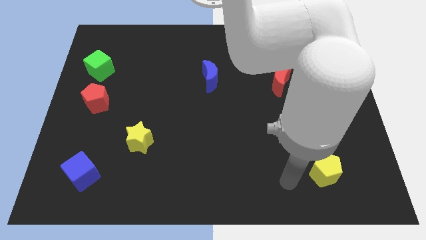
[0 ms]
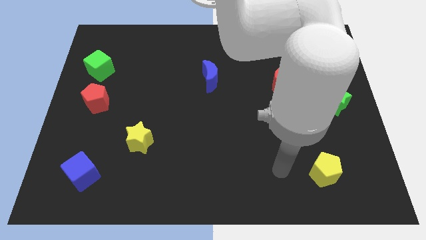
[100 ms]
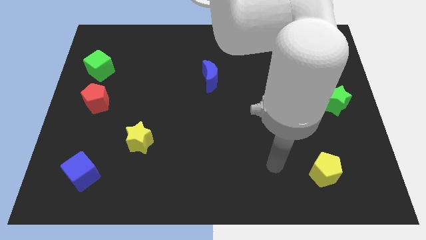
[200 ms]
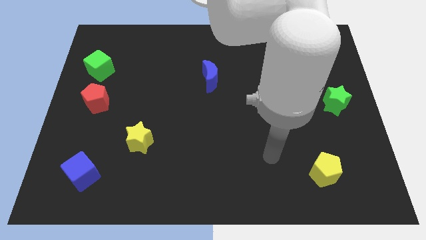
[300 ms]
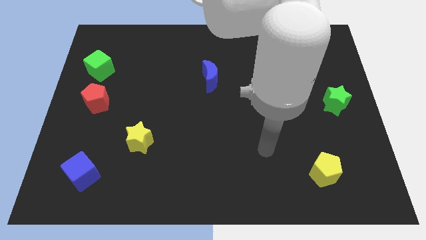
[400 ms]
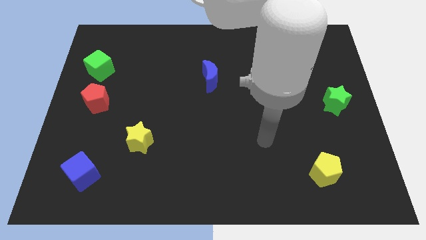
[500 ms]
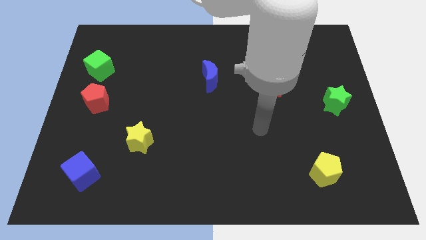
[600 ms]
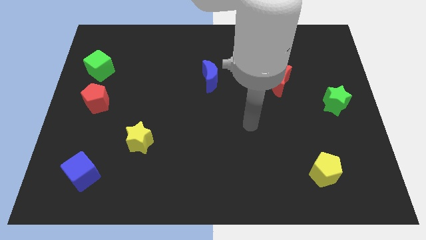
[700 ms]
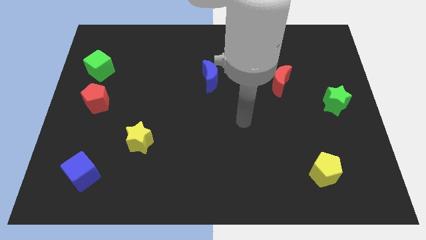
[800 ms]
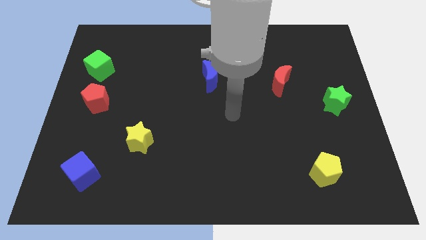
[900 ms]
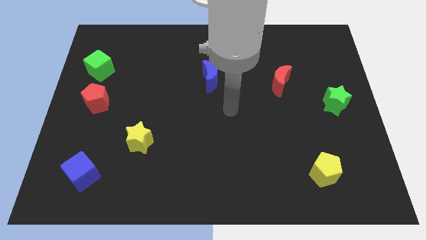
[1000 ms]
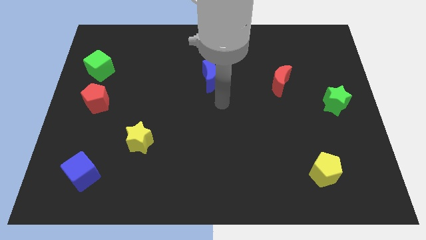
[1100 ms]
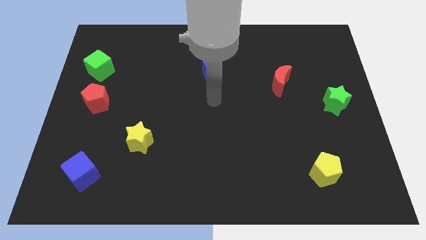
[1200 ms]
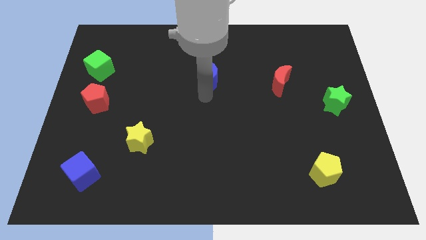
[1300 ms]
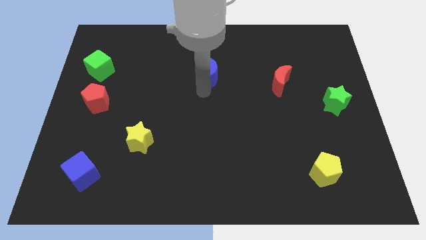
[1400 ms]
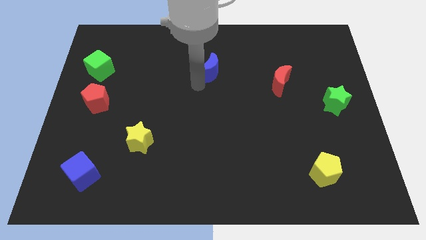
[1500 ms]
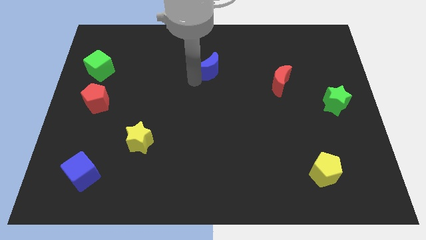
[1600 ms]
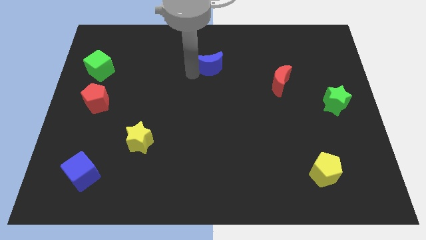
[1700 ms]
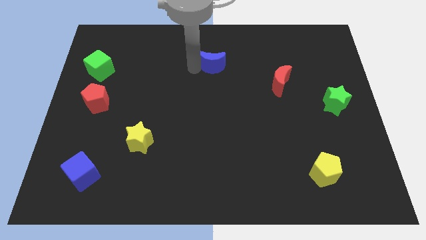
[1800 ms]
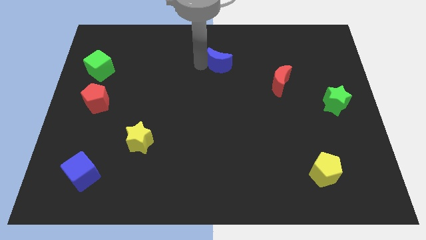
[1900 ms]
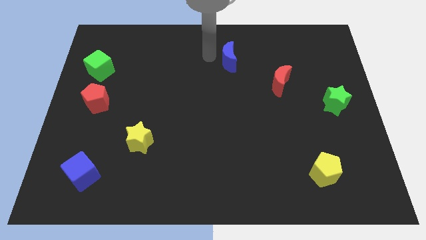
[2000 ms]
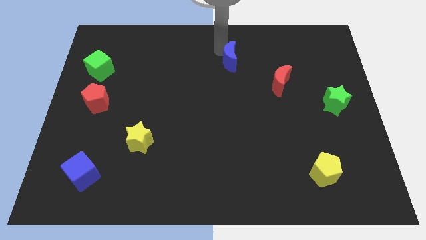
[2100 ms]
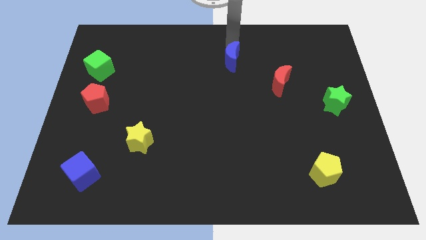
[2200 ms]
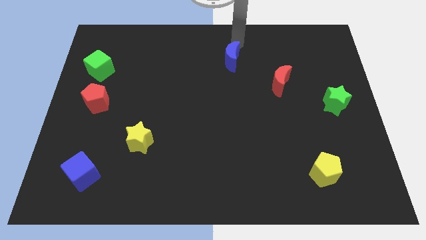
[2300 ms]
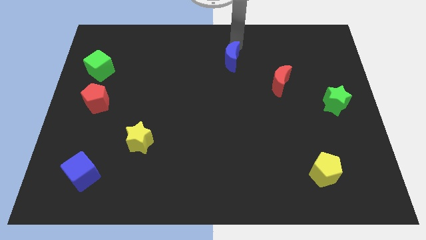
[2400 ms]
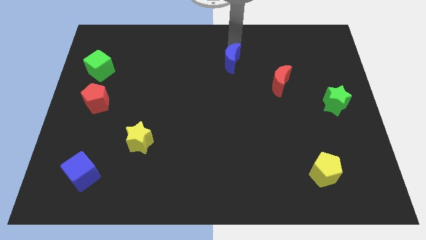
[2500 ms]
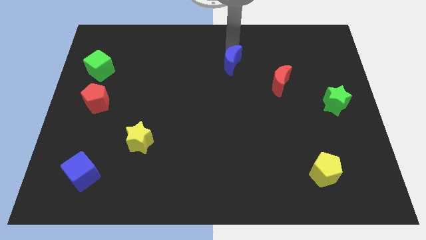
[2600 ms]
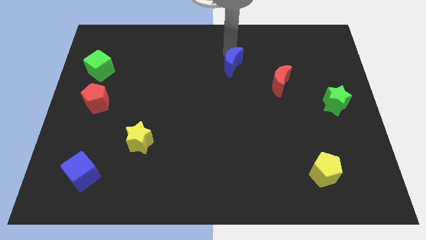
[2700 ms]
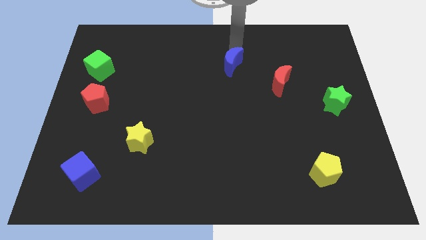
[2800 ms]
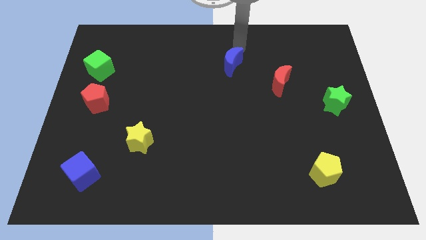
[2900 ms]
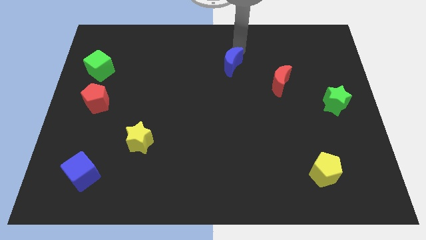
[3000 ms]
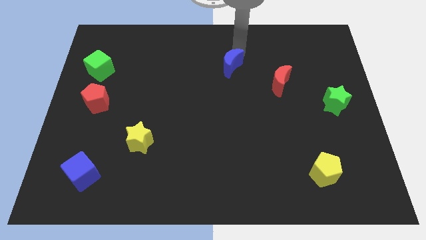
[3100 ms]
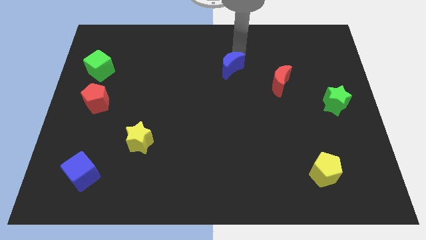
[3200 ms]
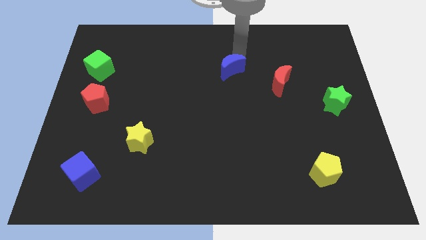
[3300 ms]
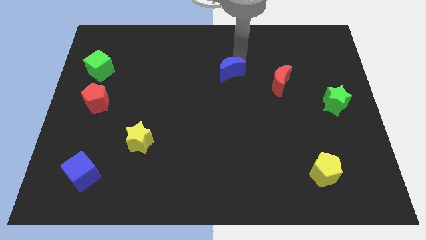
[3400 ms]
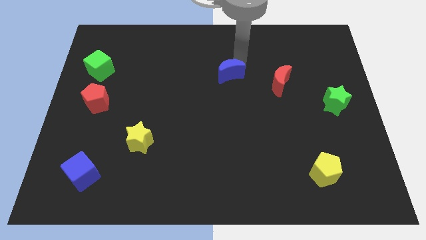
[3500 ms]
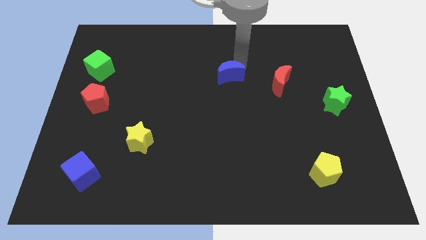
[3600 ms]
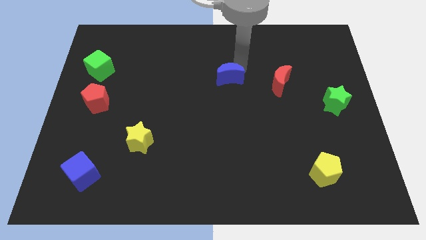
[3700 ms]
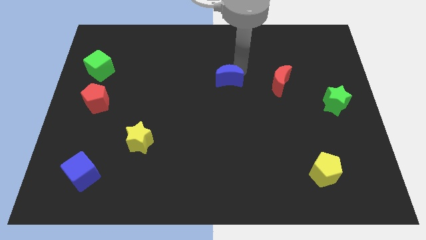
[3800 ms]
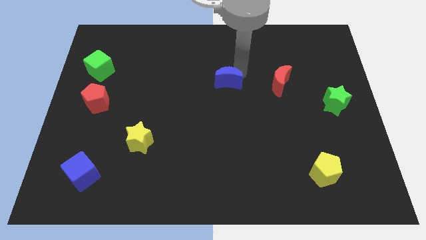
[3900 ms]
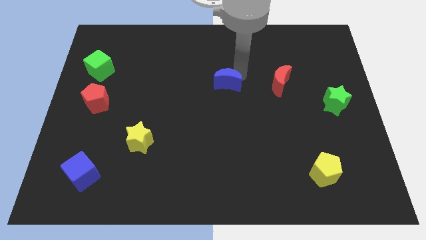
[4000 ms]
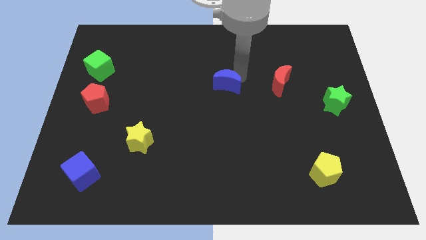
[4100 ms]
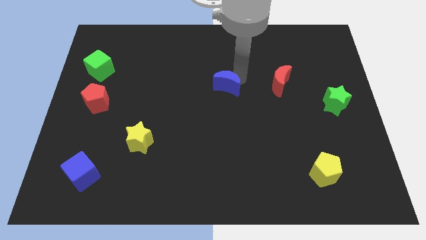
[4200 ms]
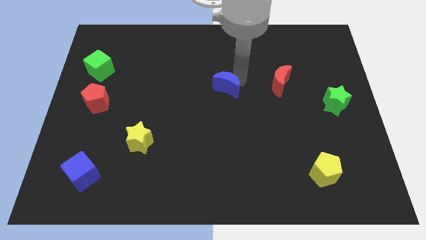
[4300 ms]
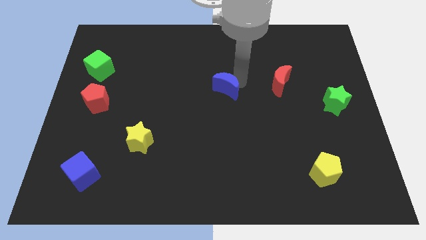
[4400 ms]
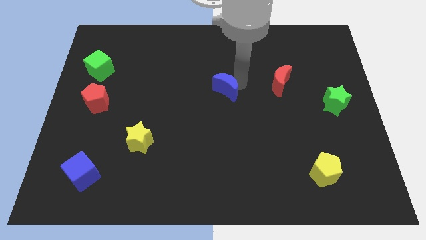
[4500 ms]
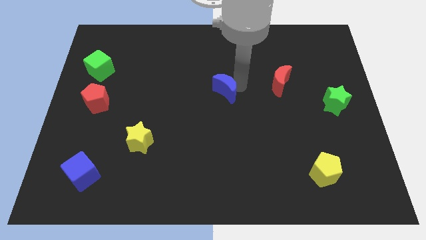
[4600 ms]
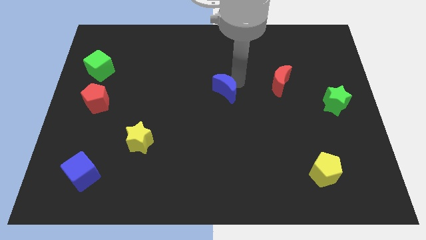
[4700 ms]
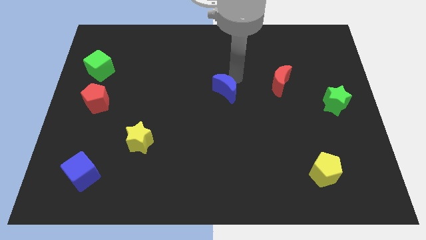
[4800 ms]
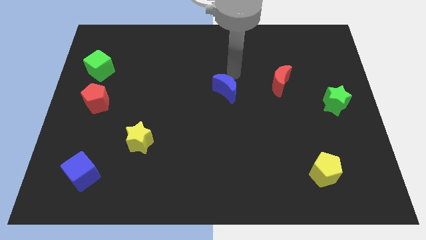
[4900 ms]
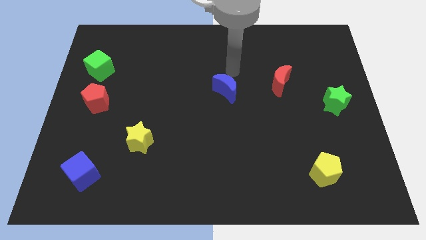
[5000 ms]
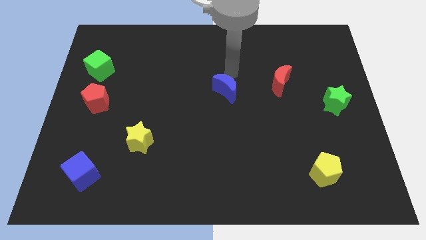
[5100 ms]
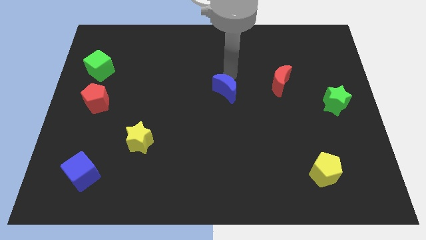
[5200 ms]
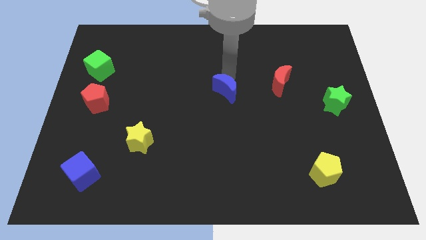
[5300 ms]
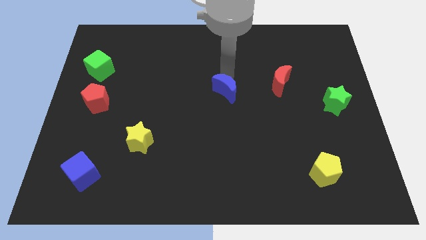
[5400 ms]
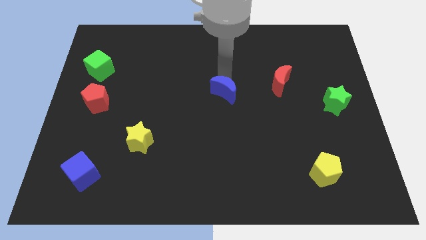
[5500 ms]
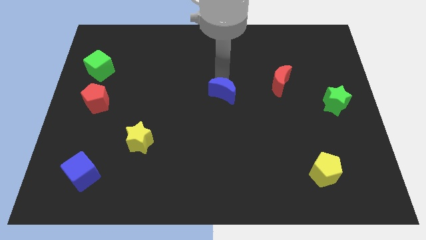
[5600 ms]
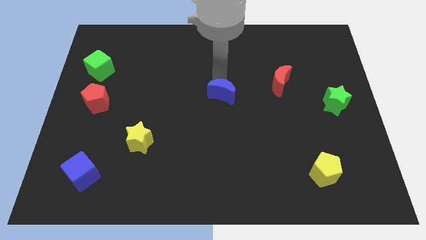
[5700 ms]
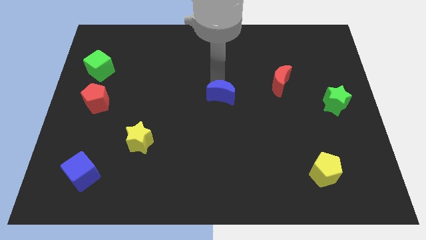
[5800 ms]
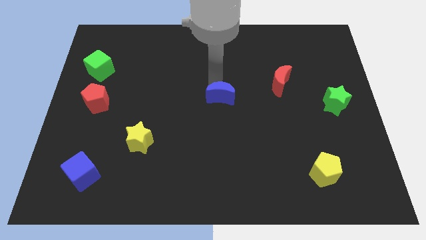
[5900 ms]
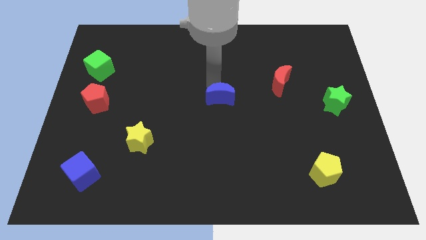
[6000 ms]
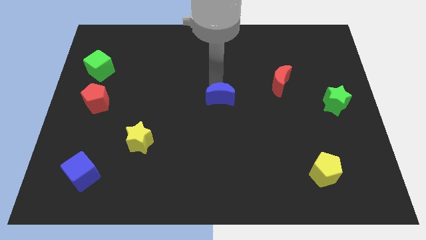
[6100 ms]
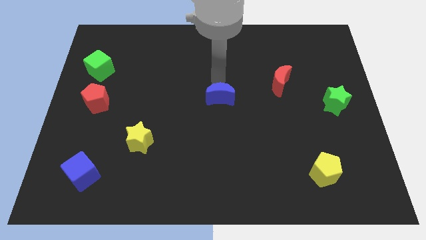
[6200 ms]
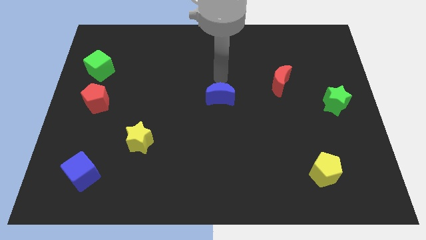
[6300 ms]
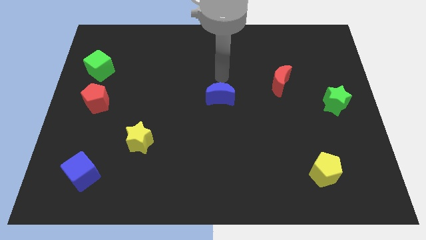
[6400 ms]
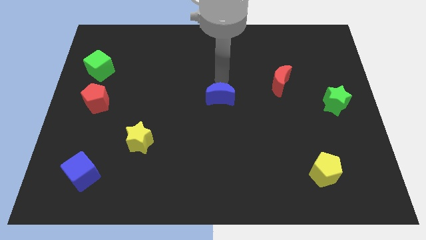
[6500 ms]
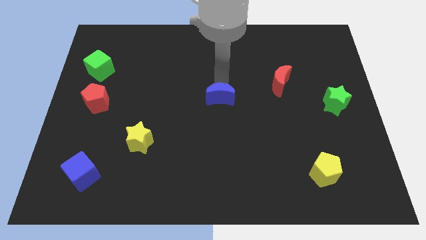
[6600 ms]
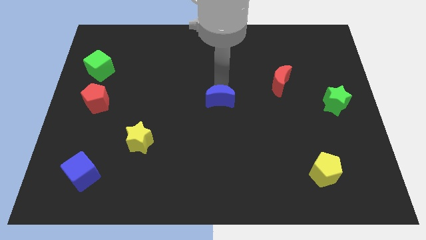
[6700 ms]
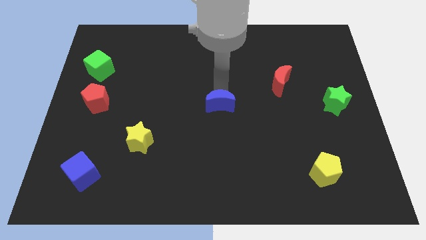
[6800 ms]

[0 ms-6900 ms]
move the blue moon down slightly

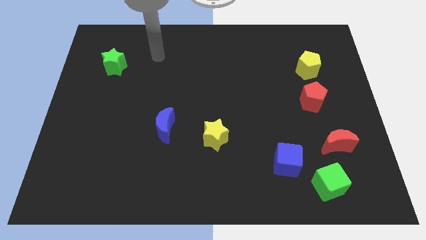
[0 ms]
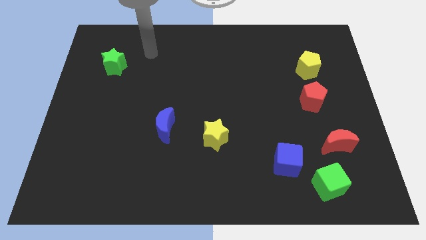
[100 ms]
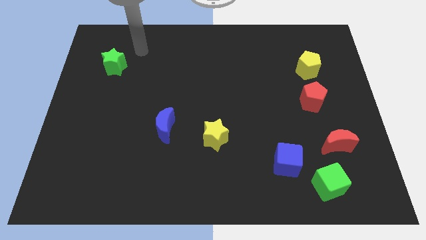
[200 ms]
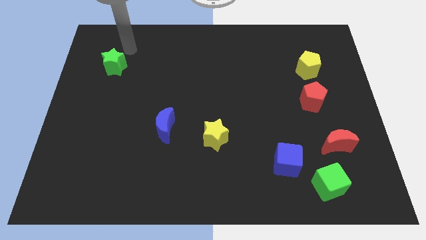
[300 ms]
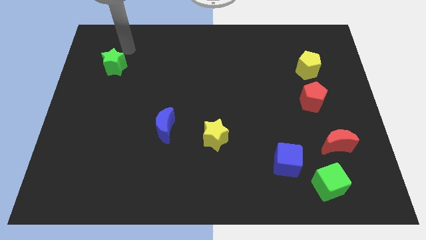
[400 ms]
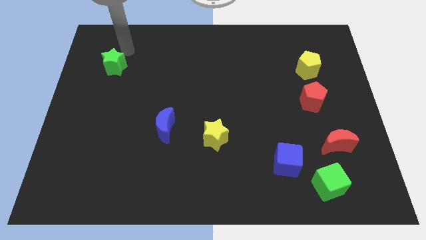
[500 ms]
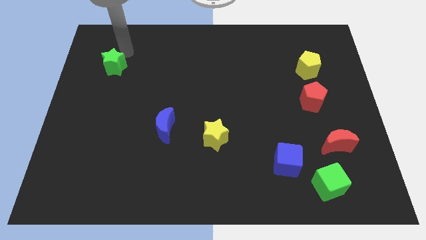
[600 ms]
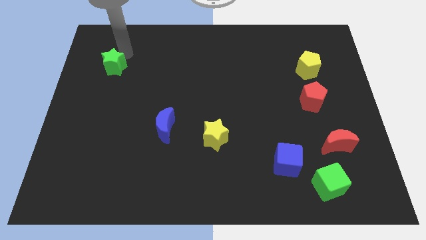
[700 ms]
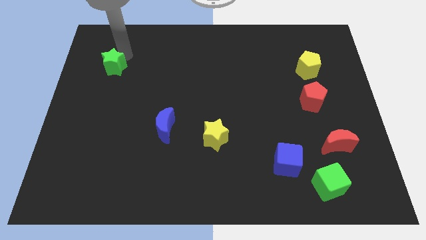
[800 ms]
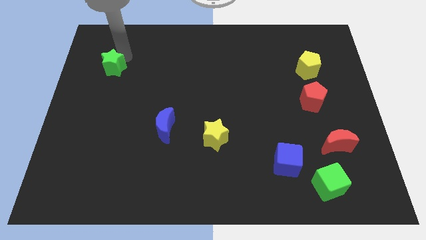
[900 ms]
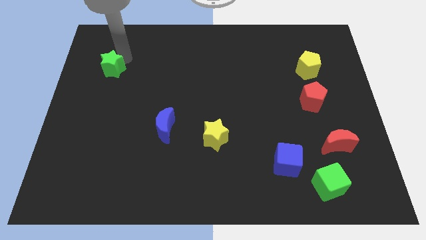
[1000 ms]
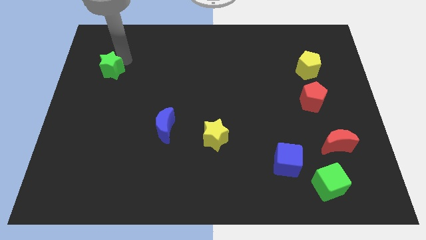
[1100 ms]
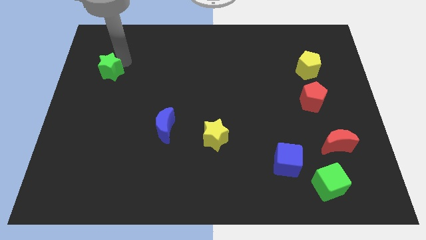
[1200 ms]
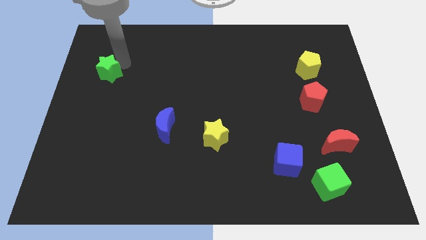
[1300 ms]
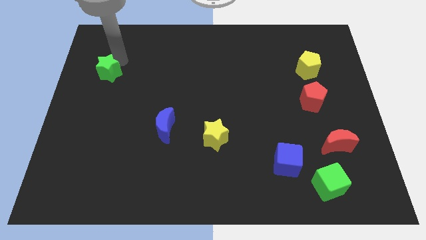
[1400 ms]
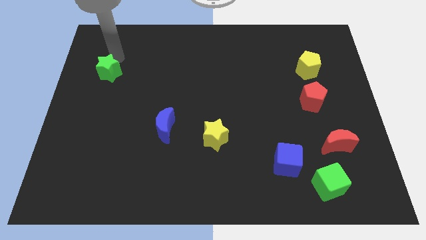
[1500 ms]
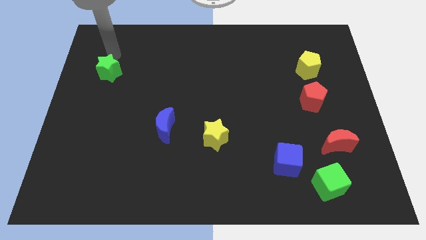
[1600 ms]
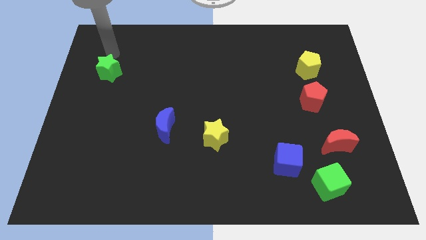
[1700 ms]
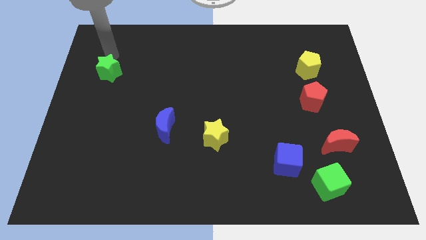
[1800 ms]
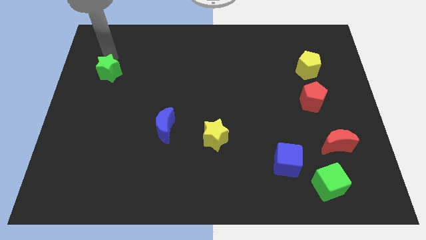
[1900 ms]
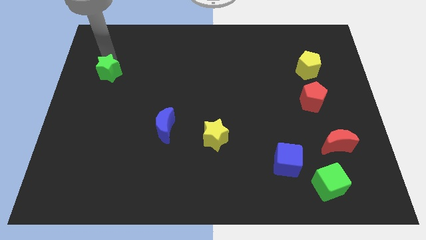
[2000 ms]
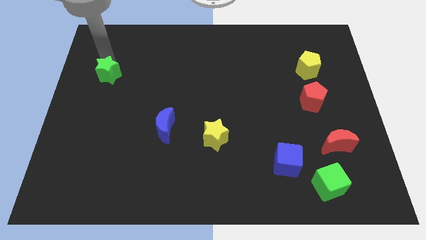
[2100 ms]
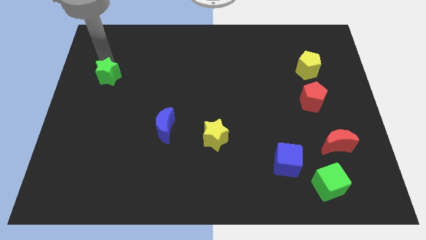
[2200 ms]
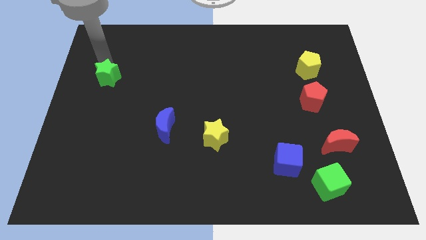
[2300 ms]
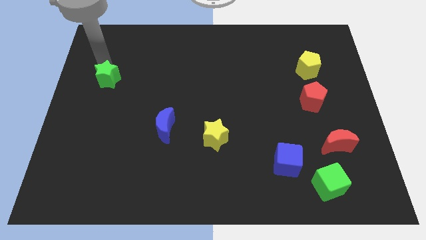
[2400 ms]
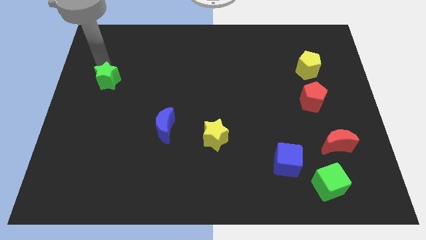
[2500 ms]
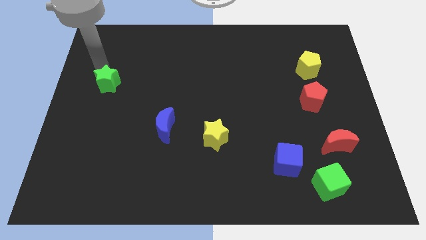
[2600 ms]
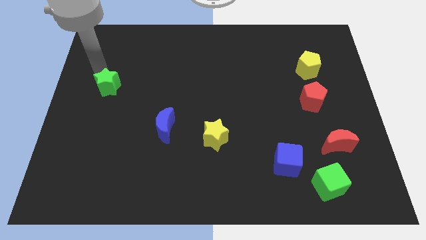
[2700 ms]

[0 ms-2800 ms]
push the green star down somewhat
